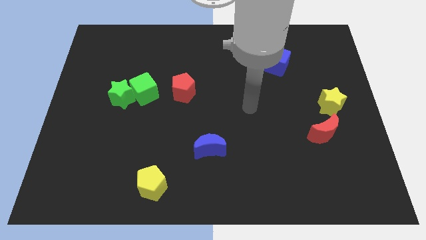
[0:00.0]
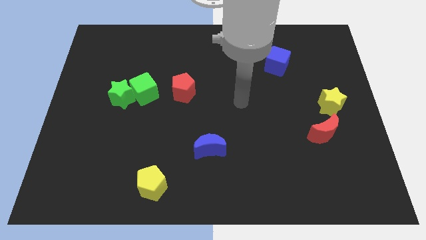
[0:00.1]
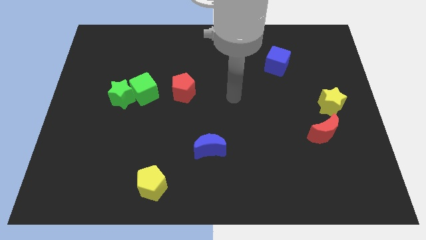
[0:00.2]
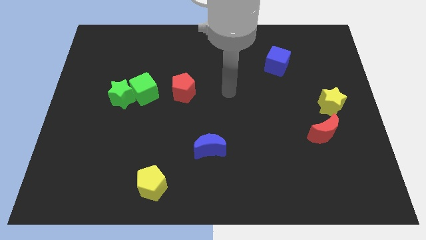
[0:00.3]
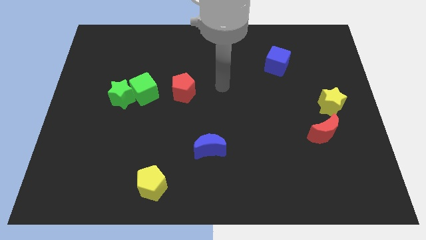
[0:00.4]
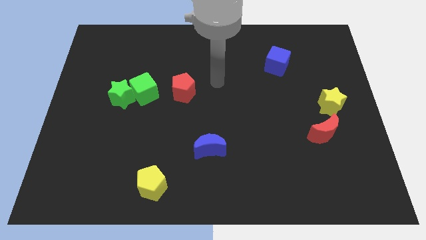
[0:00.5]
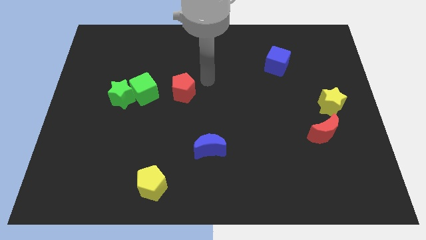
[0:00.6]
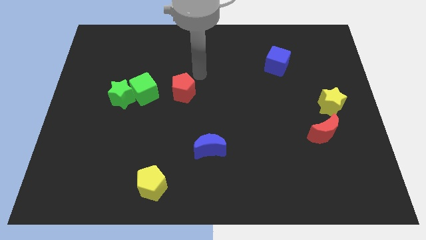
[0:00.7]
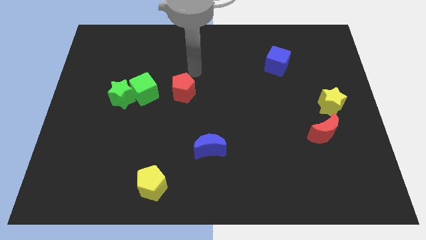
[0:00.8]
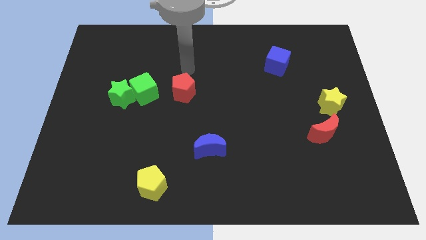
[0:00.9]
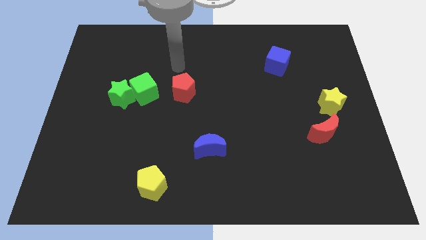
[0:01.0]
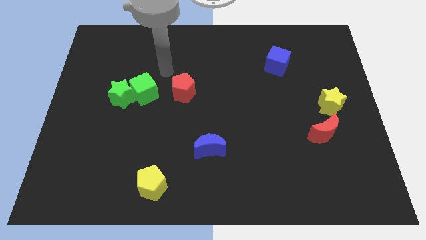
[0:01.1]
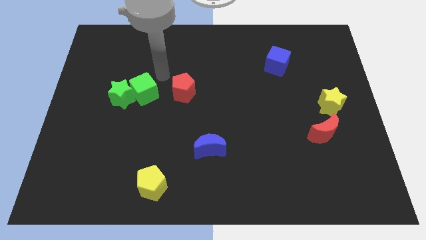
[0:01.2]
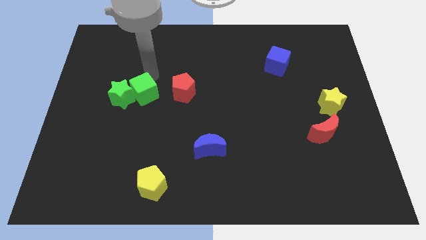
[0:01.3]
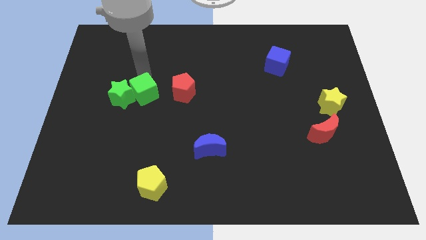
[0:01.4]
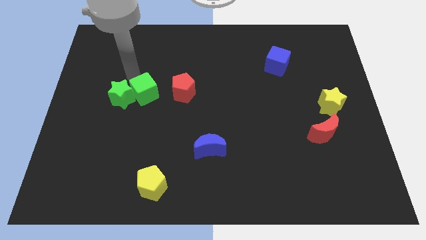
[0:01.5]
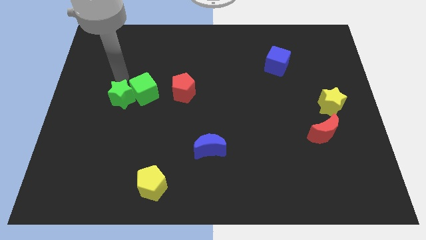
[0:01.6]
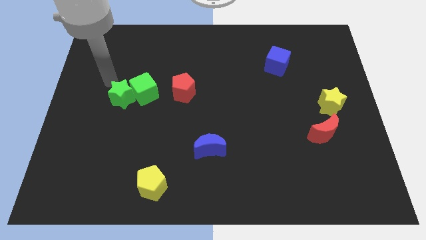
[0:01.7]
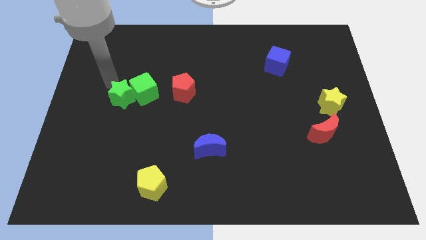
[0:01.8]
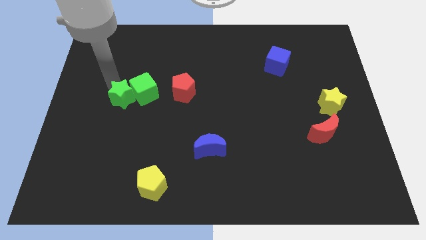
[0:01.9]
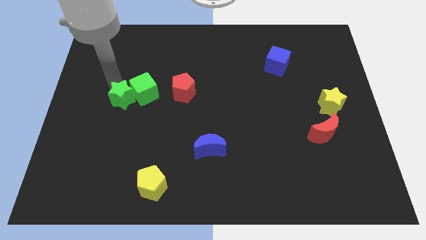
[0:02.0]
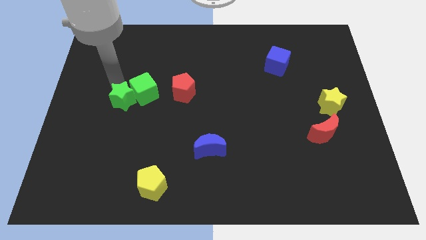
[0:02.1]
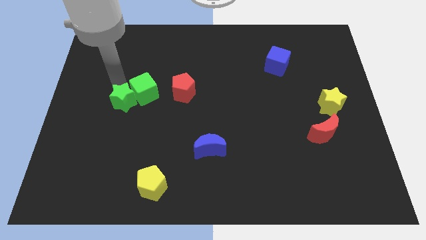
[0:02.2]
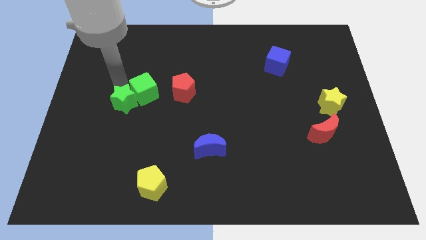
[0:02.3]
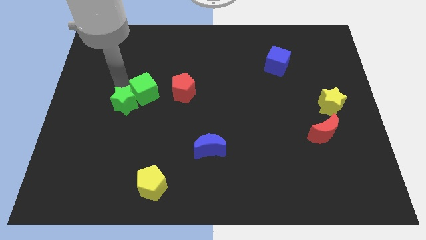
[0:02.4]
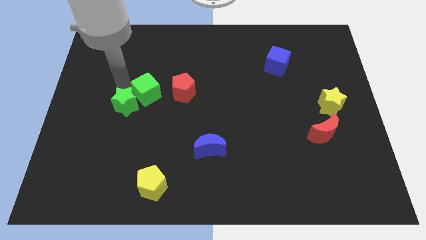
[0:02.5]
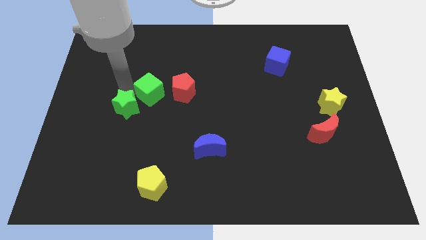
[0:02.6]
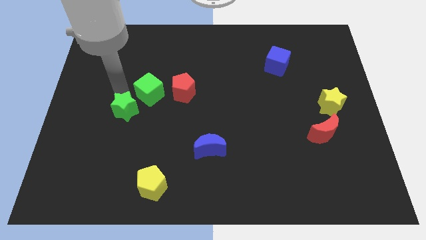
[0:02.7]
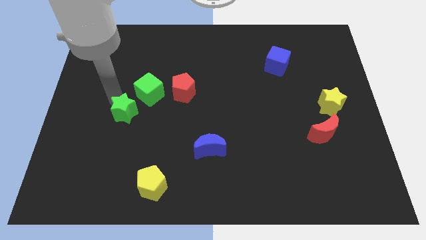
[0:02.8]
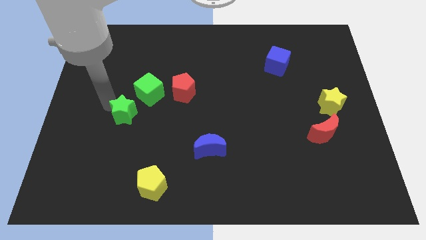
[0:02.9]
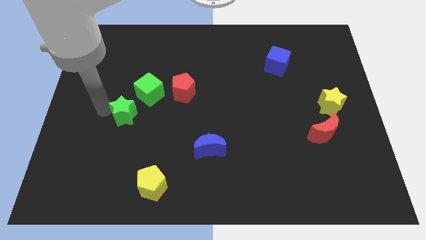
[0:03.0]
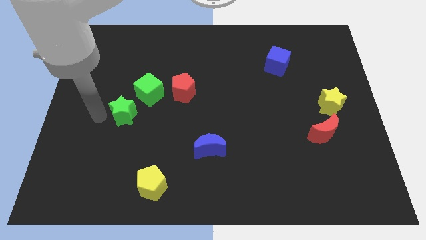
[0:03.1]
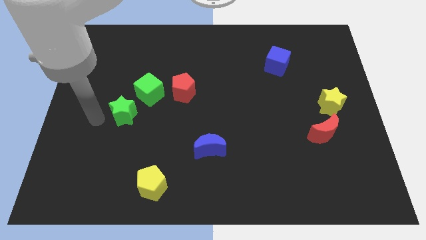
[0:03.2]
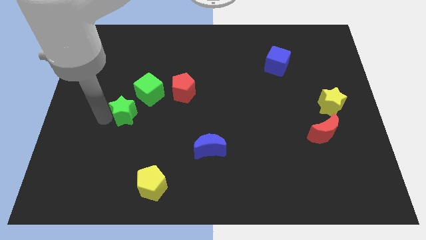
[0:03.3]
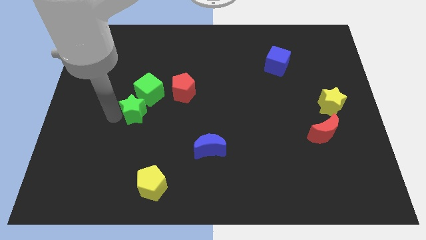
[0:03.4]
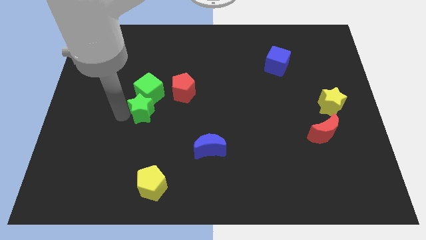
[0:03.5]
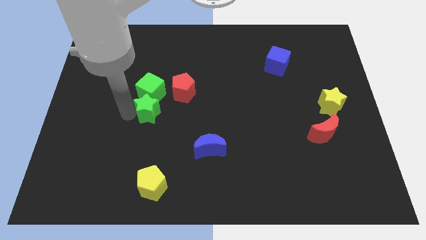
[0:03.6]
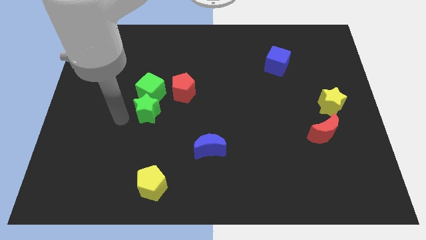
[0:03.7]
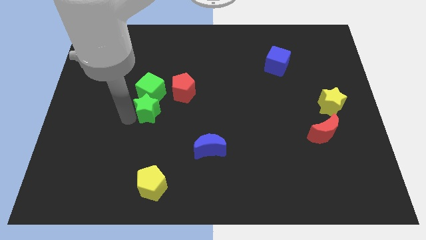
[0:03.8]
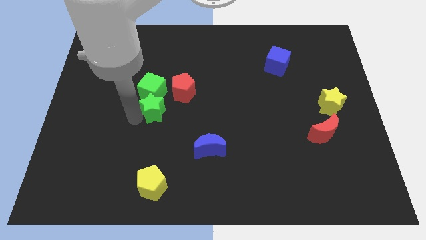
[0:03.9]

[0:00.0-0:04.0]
move the green star slightly to the right

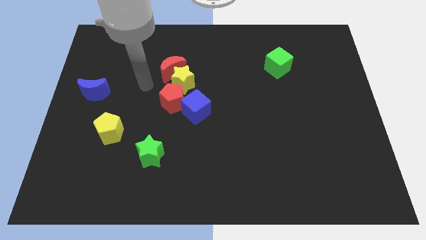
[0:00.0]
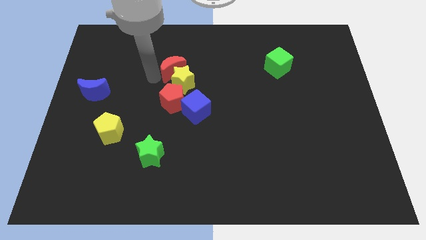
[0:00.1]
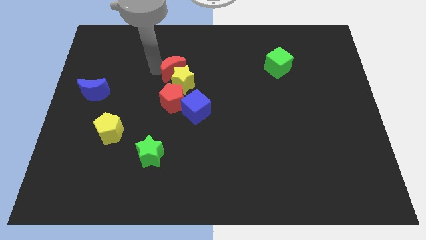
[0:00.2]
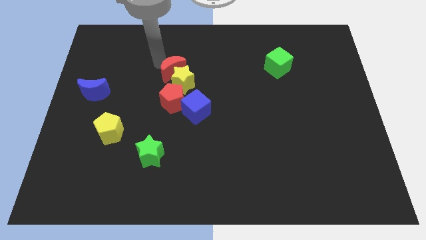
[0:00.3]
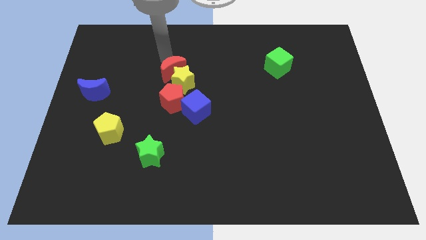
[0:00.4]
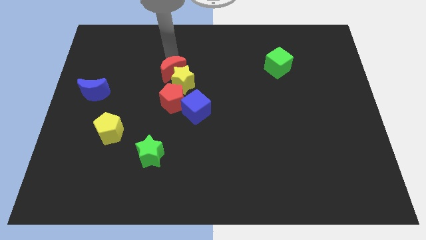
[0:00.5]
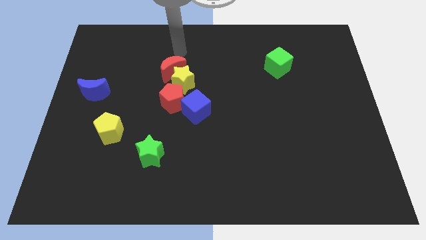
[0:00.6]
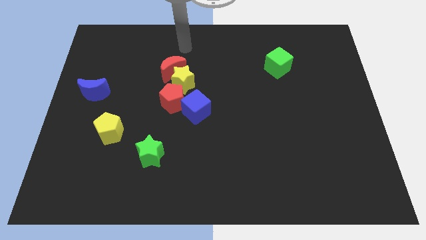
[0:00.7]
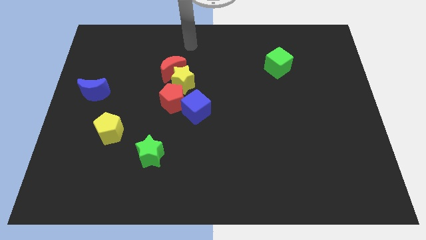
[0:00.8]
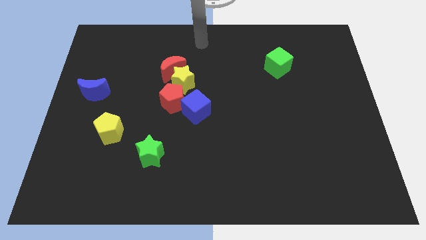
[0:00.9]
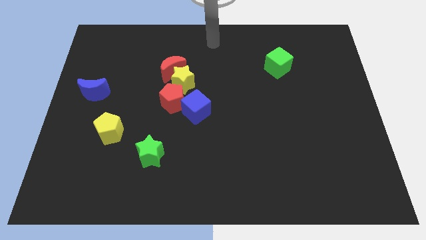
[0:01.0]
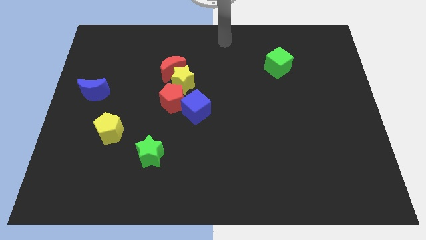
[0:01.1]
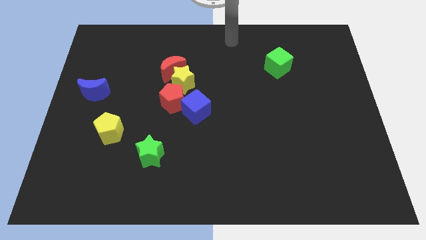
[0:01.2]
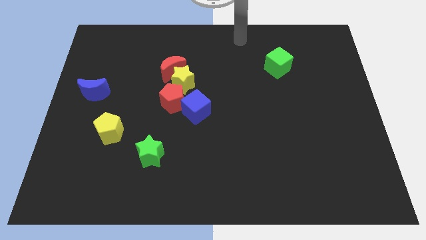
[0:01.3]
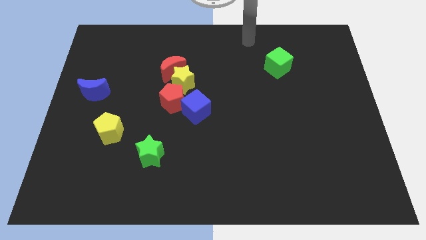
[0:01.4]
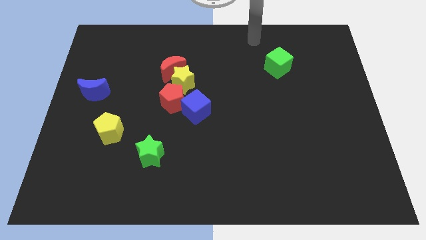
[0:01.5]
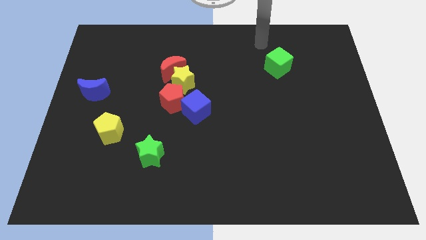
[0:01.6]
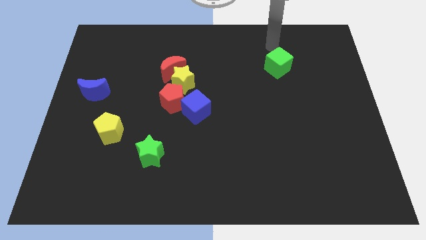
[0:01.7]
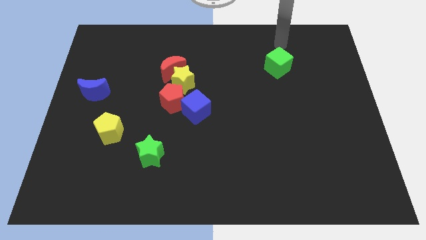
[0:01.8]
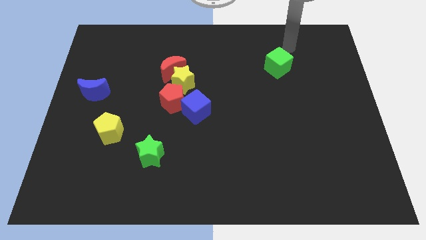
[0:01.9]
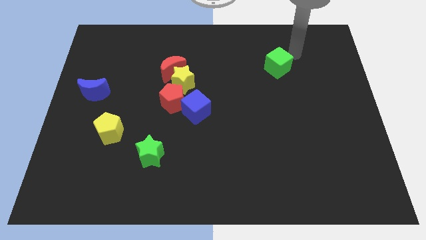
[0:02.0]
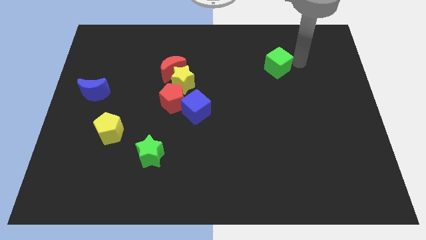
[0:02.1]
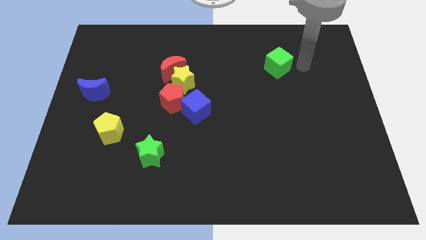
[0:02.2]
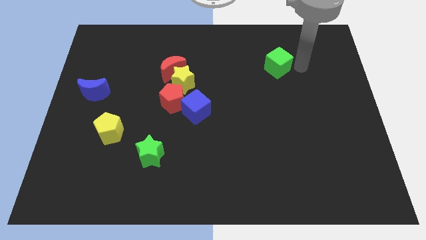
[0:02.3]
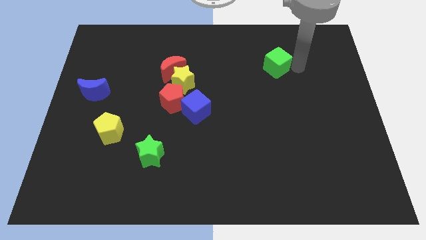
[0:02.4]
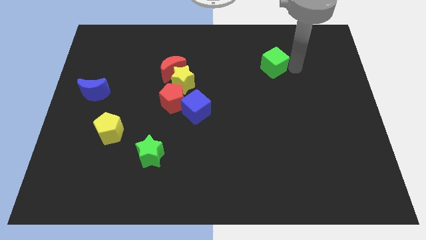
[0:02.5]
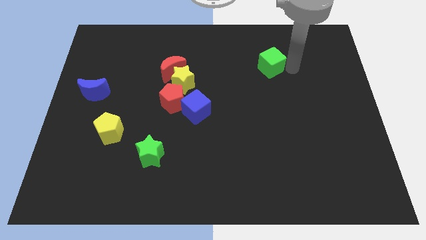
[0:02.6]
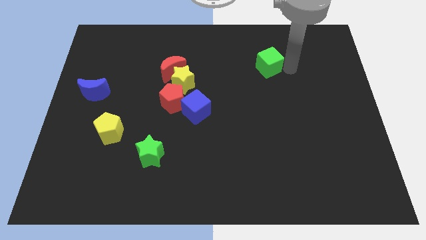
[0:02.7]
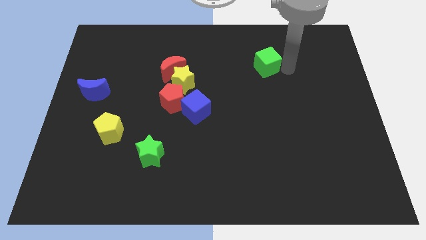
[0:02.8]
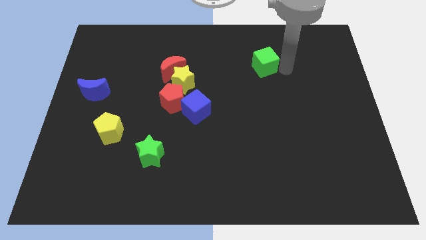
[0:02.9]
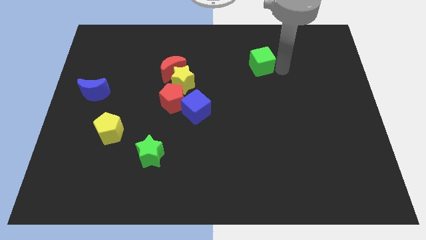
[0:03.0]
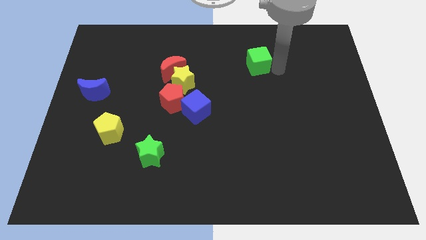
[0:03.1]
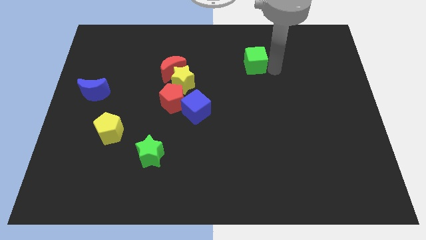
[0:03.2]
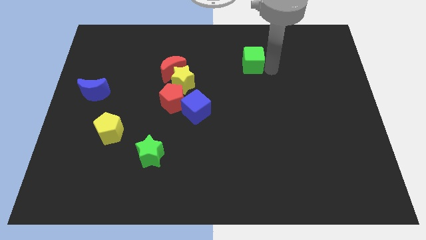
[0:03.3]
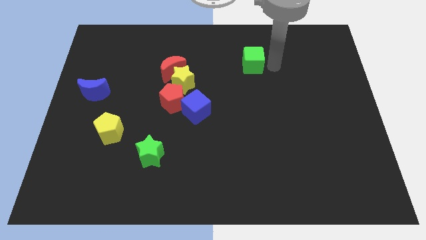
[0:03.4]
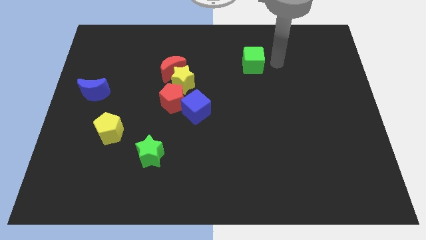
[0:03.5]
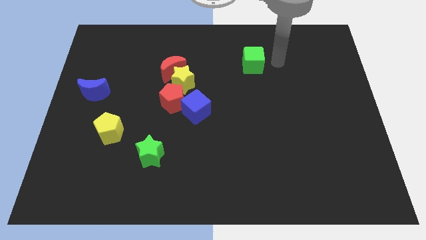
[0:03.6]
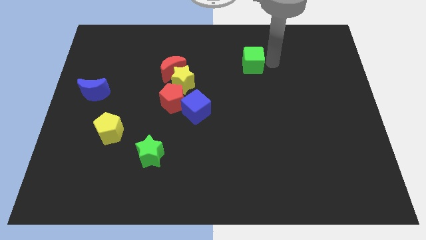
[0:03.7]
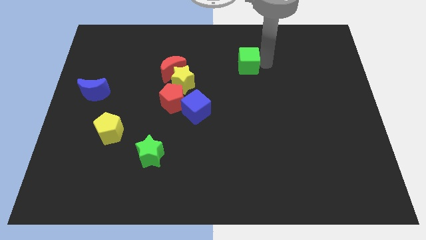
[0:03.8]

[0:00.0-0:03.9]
slightly move the green cube to the left

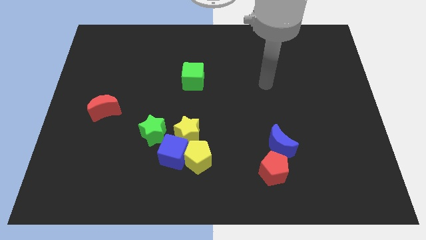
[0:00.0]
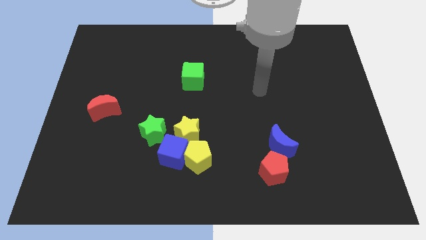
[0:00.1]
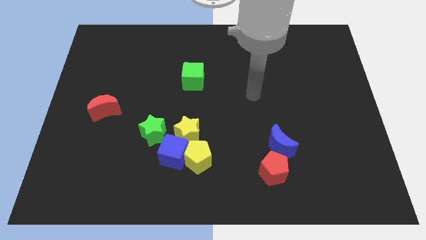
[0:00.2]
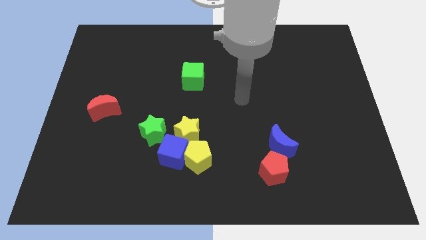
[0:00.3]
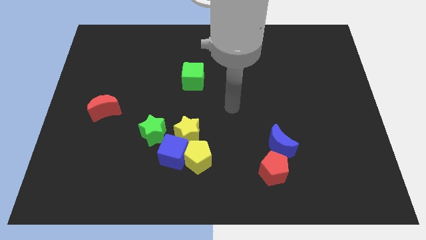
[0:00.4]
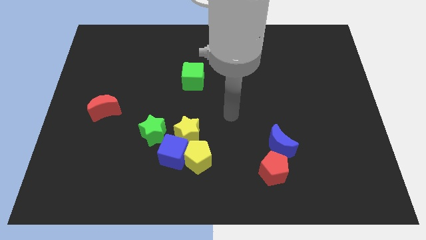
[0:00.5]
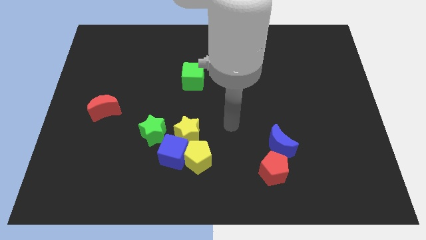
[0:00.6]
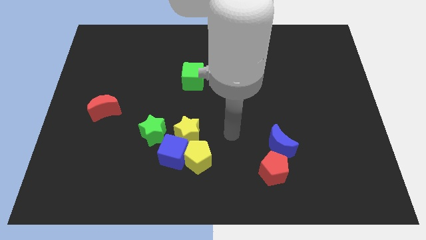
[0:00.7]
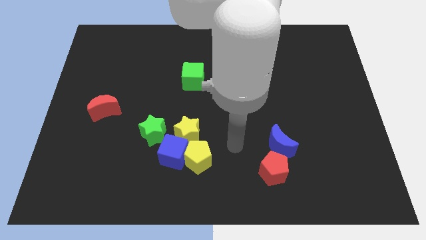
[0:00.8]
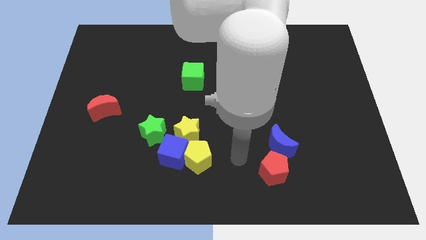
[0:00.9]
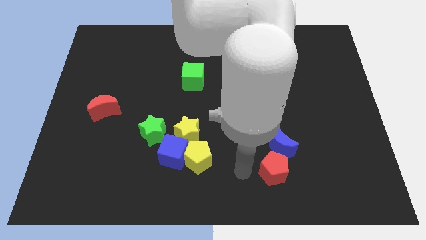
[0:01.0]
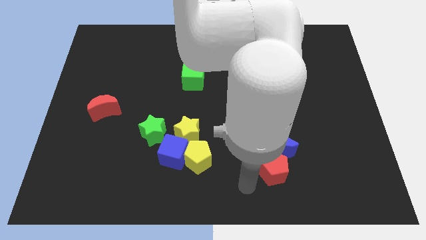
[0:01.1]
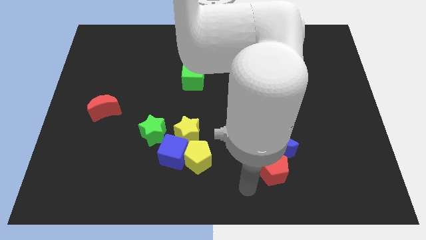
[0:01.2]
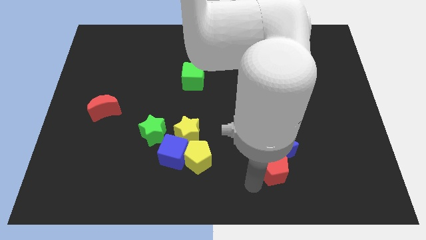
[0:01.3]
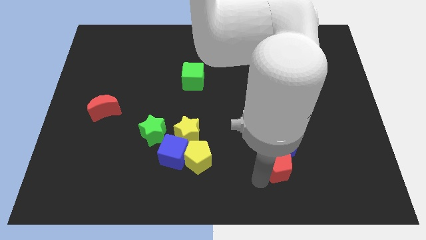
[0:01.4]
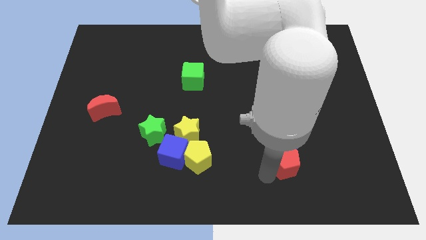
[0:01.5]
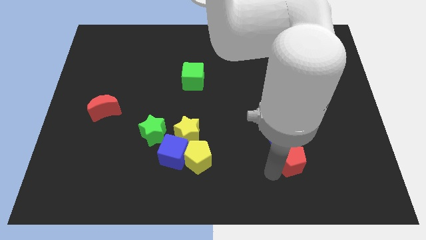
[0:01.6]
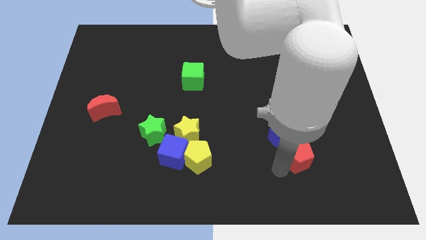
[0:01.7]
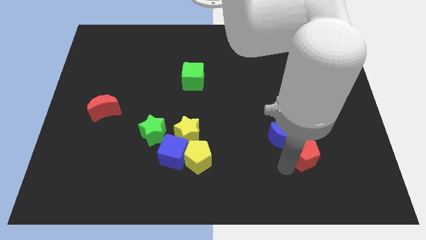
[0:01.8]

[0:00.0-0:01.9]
move the red pentagon diagonally up and to the right somewhat
